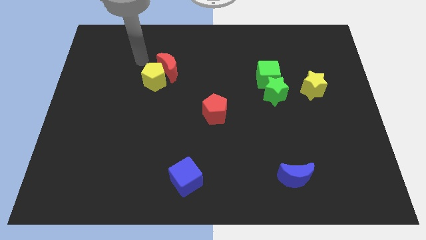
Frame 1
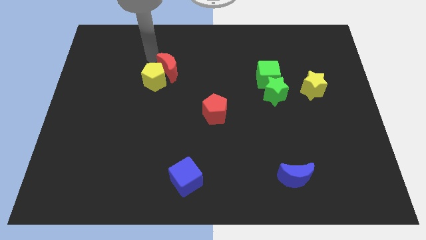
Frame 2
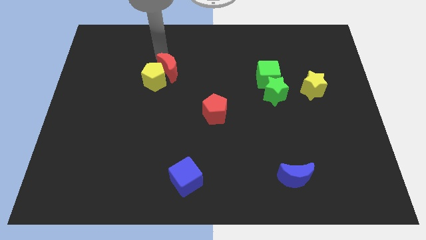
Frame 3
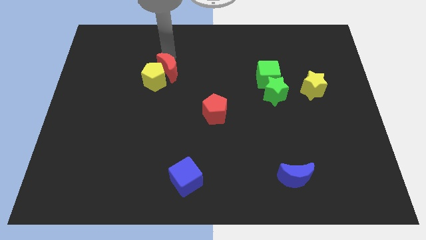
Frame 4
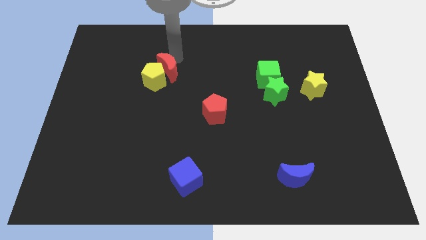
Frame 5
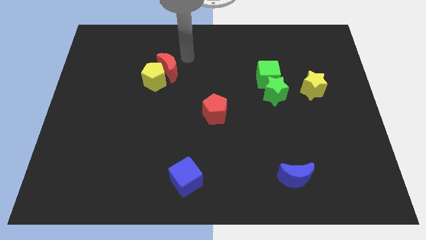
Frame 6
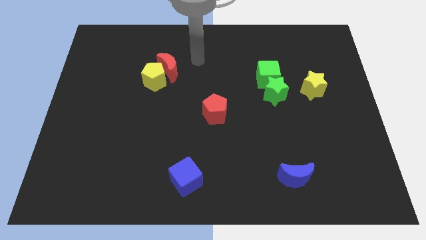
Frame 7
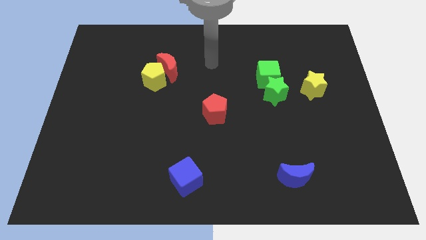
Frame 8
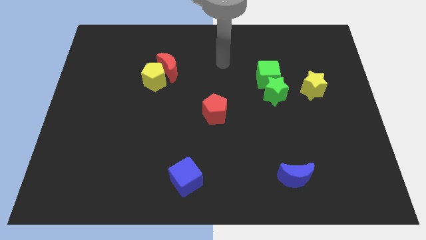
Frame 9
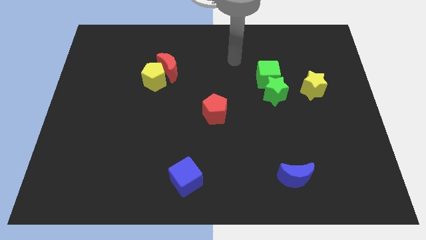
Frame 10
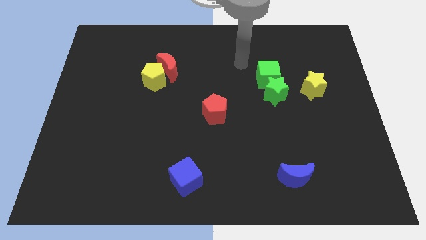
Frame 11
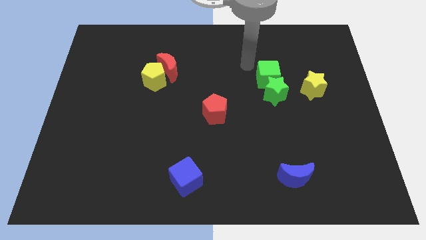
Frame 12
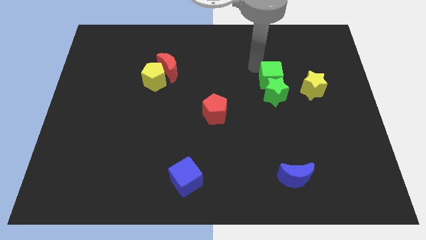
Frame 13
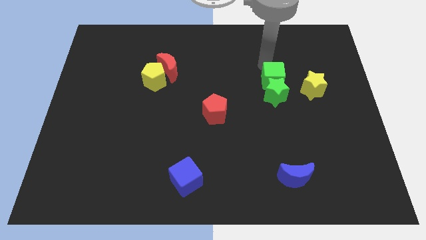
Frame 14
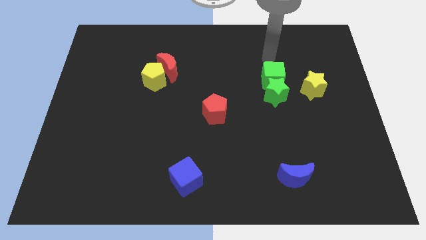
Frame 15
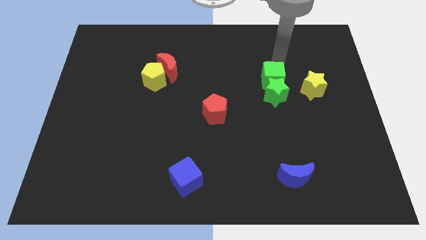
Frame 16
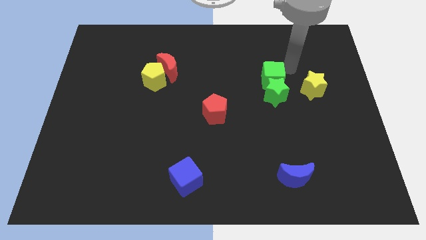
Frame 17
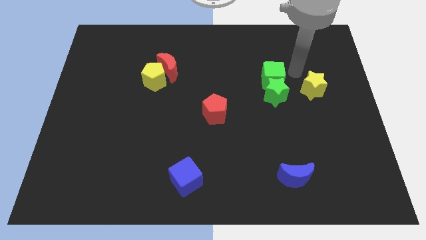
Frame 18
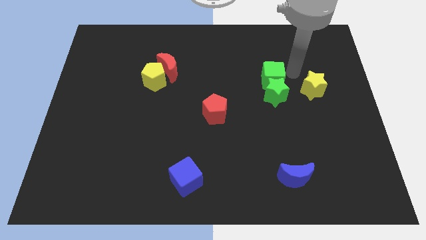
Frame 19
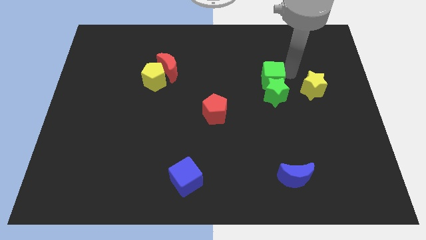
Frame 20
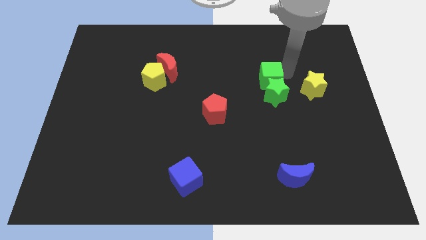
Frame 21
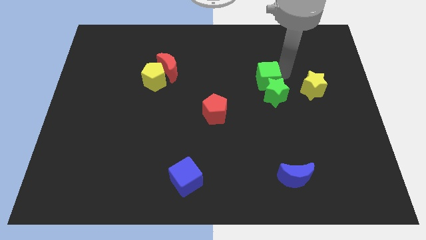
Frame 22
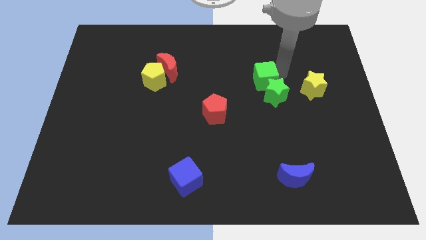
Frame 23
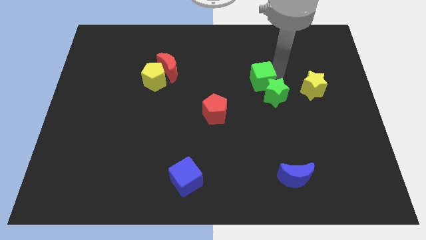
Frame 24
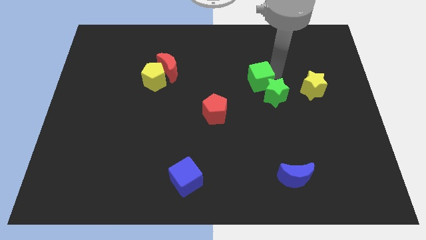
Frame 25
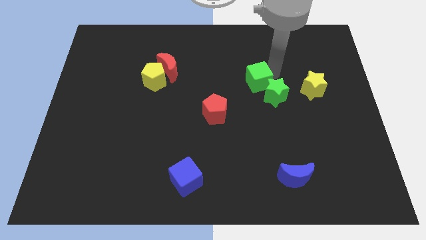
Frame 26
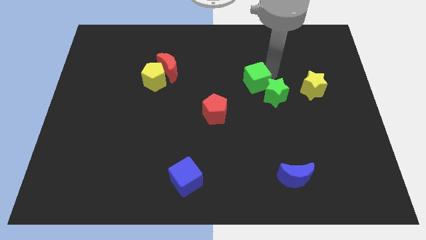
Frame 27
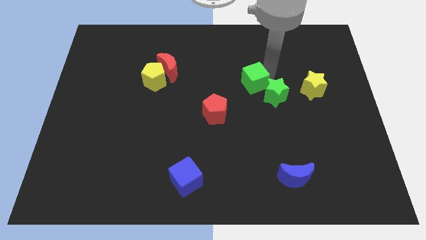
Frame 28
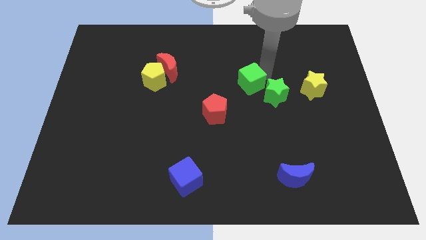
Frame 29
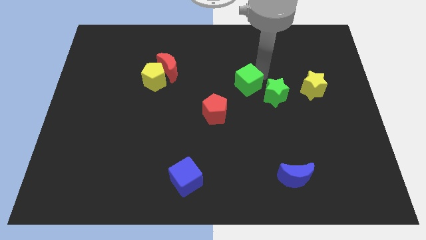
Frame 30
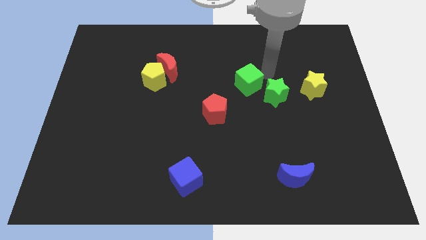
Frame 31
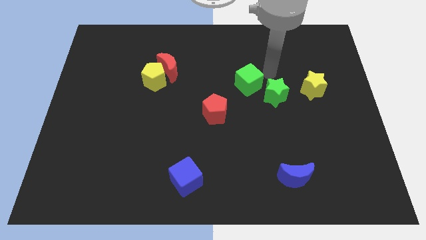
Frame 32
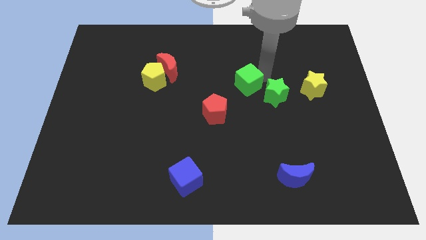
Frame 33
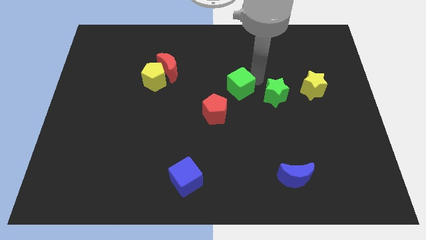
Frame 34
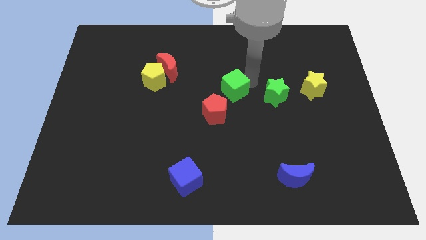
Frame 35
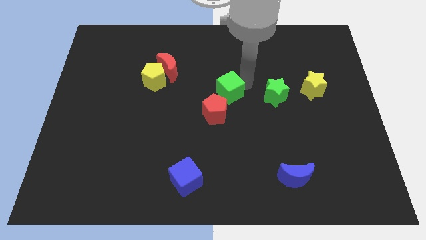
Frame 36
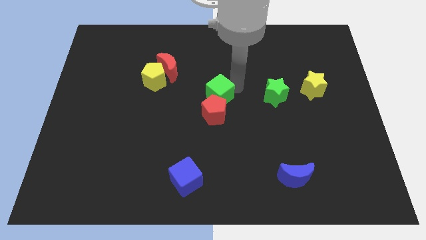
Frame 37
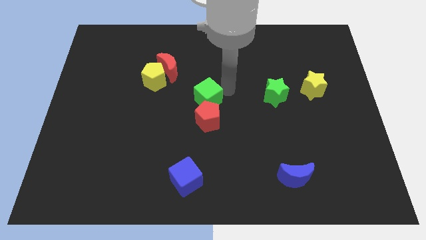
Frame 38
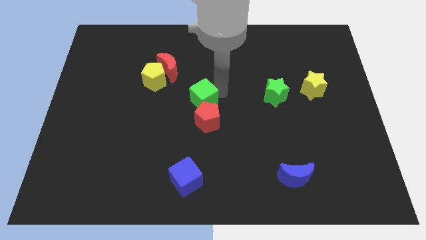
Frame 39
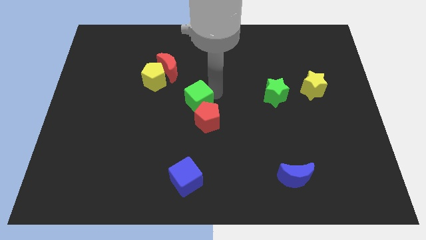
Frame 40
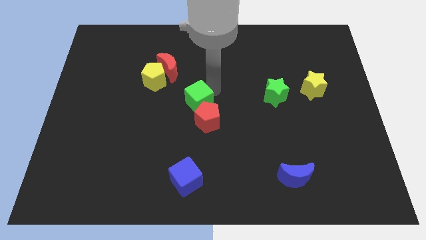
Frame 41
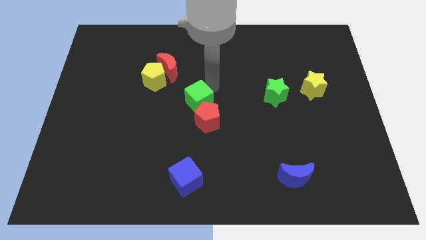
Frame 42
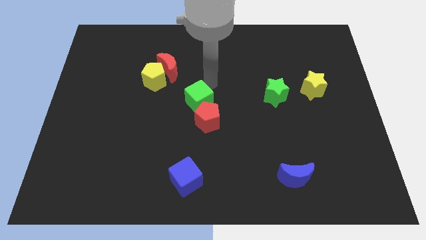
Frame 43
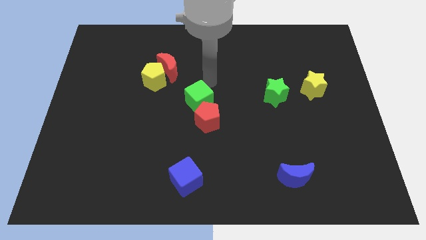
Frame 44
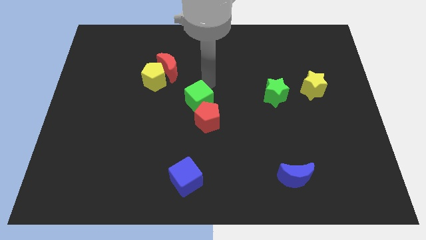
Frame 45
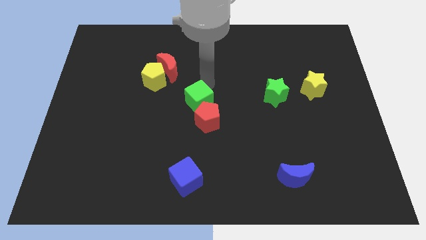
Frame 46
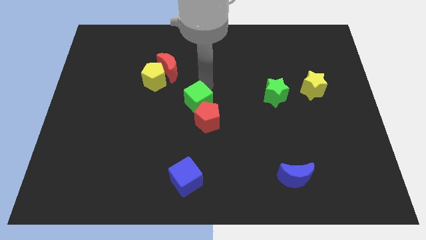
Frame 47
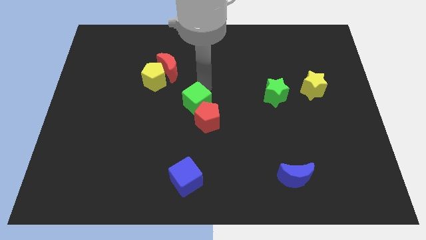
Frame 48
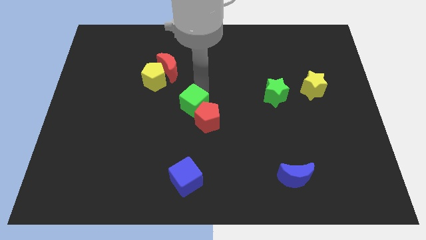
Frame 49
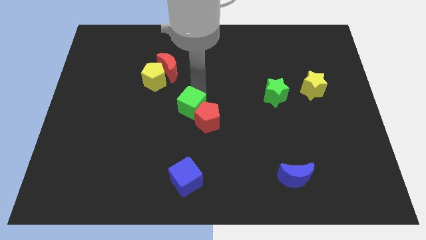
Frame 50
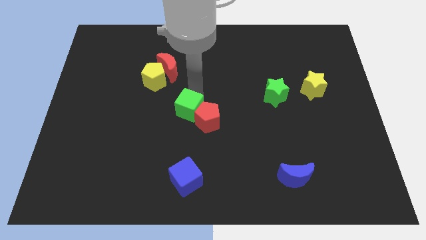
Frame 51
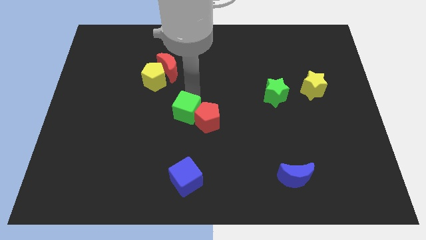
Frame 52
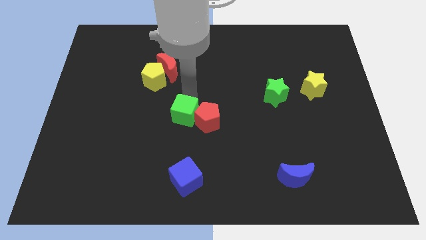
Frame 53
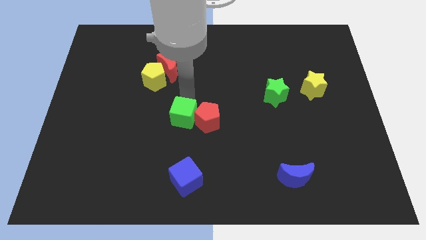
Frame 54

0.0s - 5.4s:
move the green cube diagonally down and to the left of the red pentagon

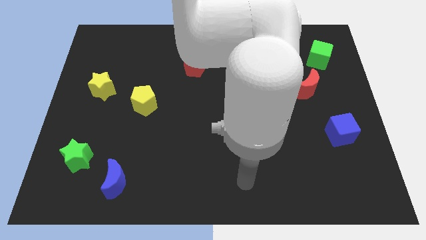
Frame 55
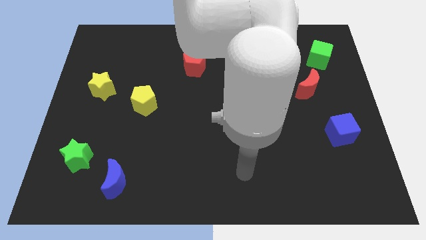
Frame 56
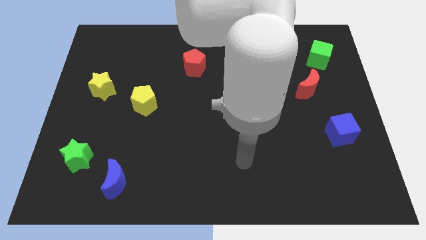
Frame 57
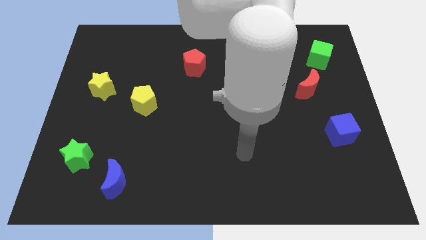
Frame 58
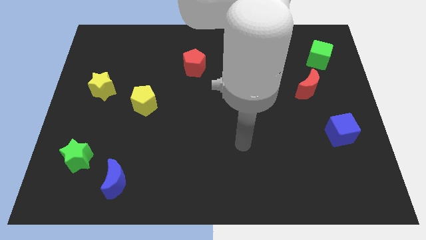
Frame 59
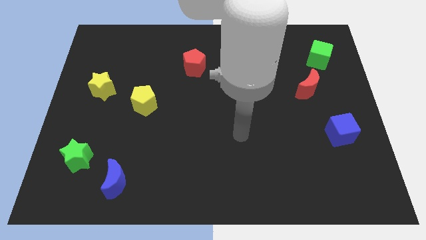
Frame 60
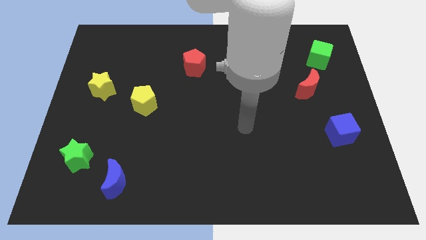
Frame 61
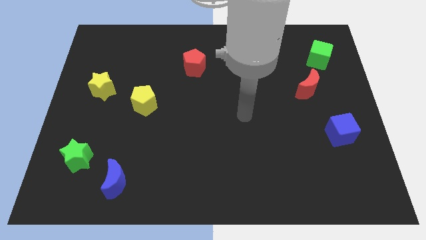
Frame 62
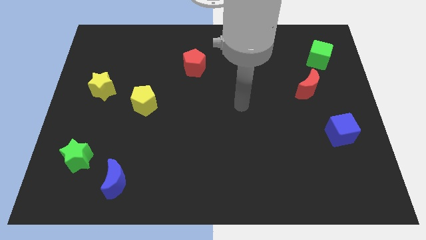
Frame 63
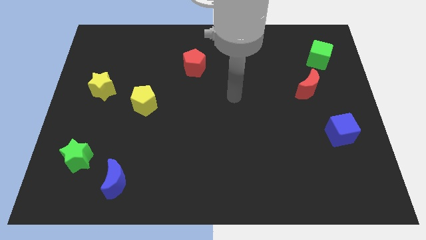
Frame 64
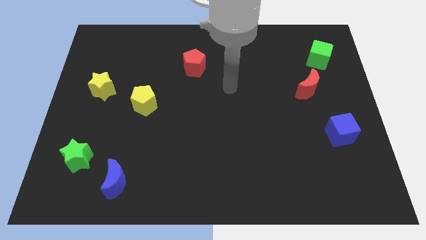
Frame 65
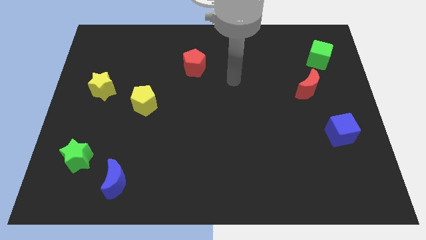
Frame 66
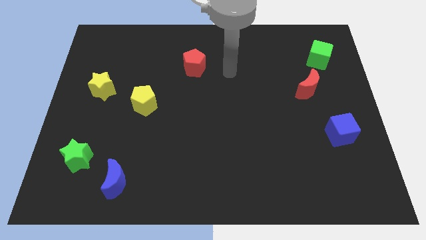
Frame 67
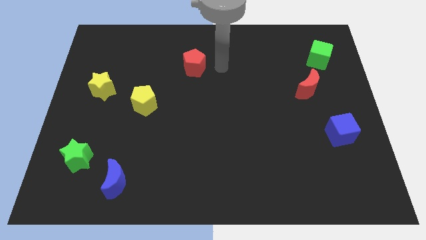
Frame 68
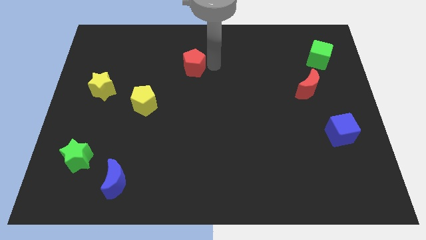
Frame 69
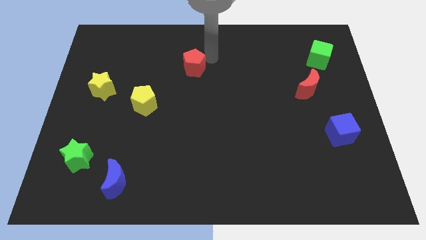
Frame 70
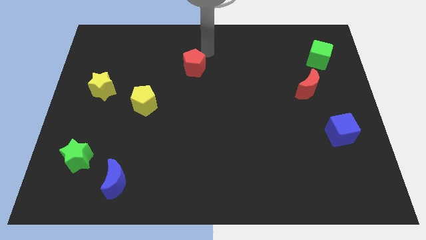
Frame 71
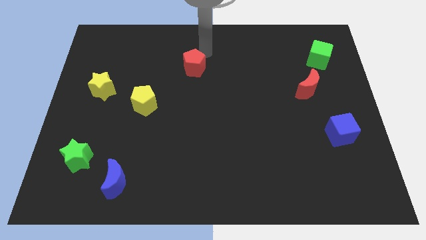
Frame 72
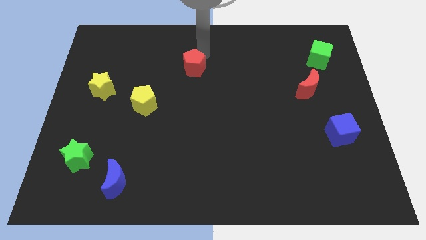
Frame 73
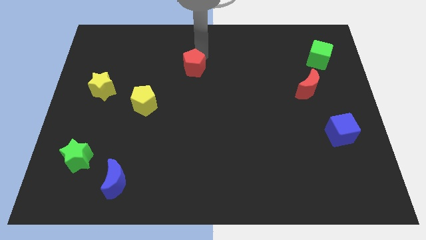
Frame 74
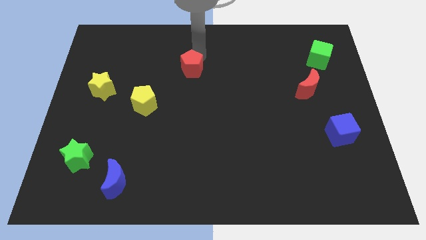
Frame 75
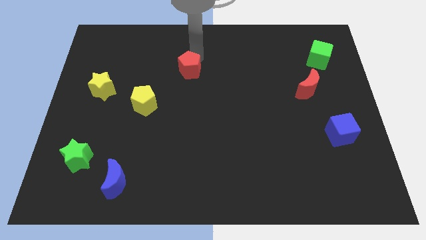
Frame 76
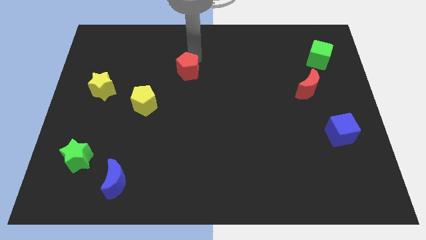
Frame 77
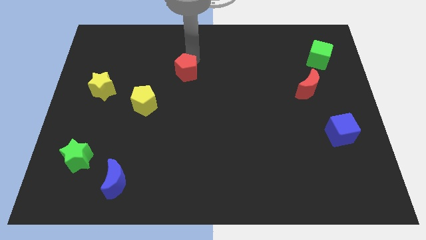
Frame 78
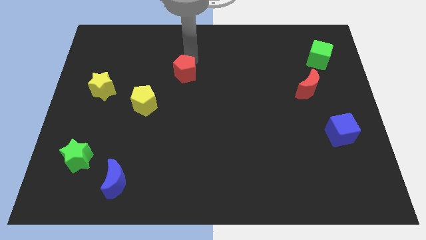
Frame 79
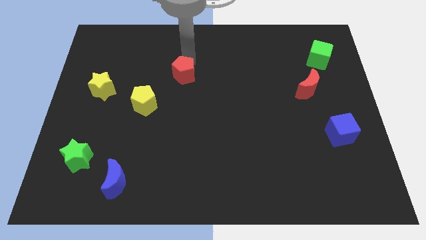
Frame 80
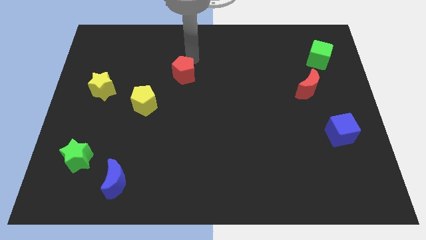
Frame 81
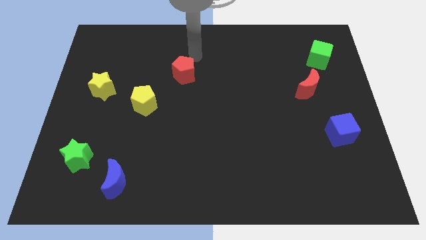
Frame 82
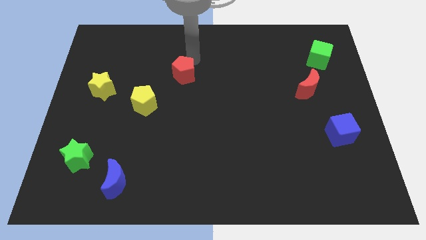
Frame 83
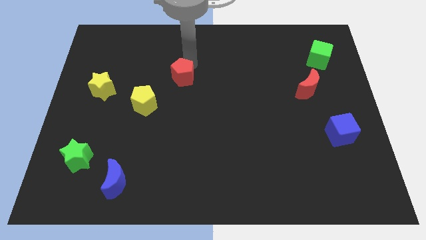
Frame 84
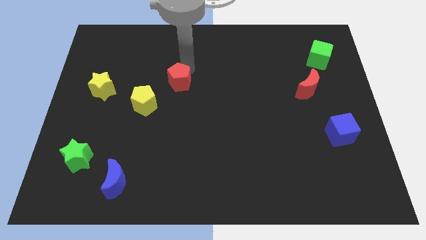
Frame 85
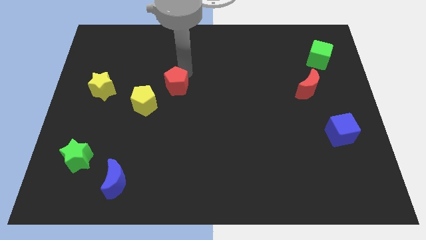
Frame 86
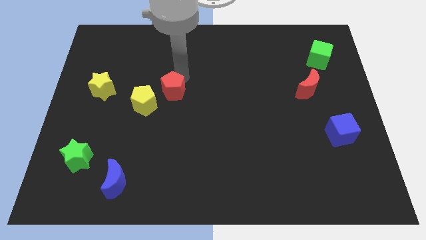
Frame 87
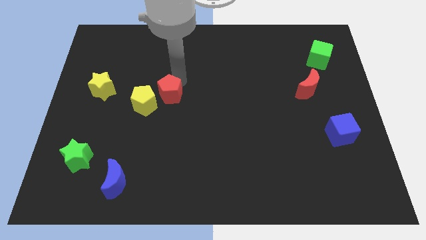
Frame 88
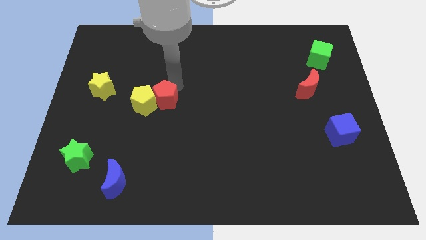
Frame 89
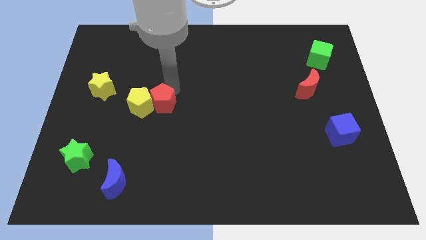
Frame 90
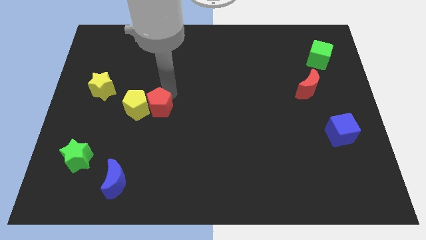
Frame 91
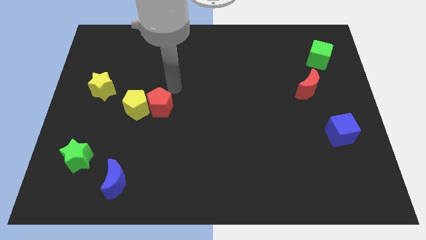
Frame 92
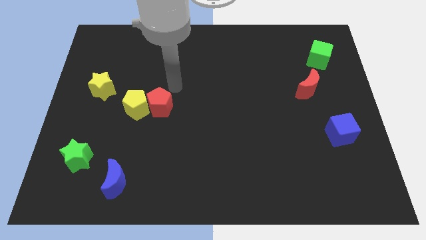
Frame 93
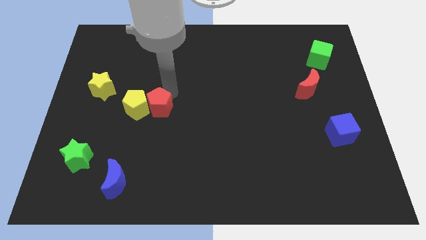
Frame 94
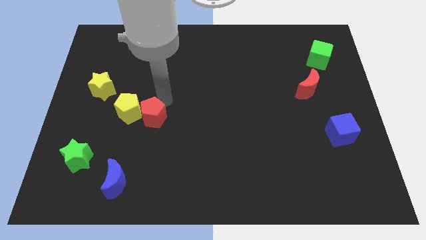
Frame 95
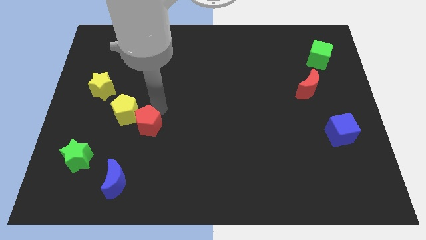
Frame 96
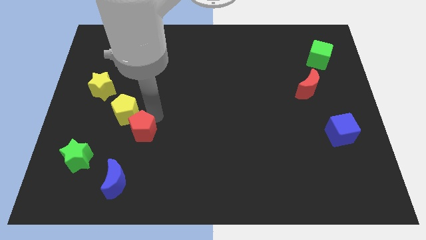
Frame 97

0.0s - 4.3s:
push the red pentagon to the bottom of the yellow pentagon
